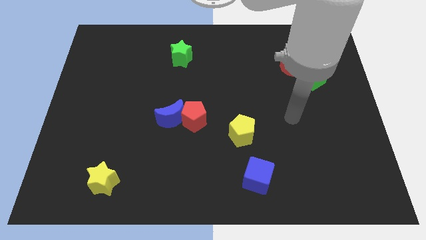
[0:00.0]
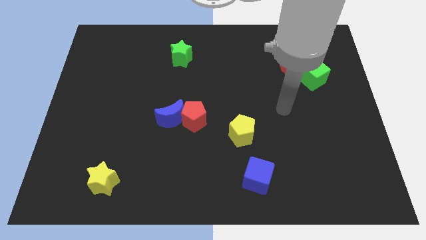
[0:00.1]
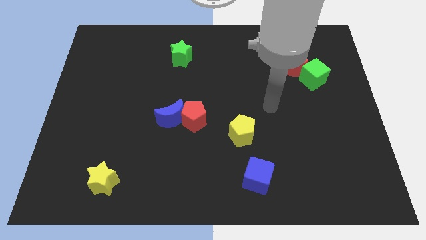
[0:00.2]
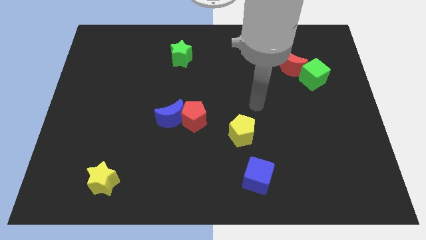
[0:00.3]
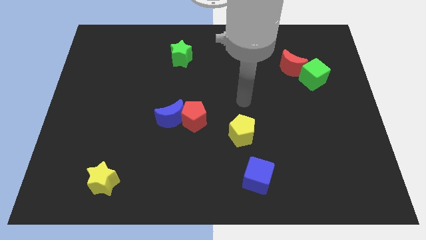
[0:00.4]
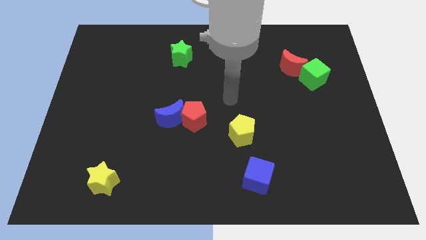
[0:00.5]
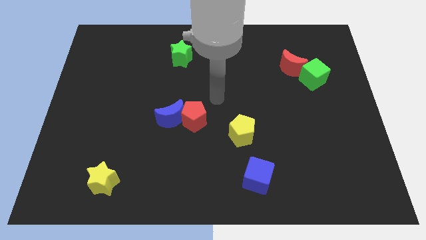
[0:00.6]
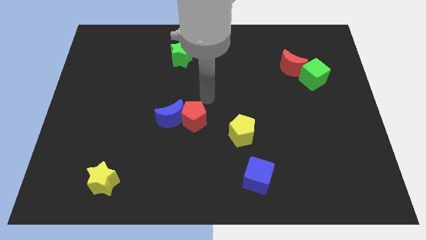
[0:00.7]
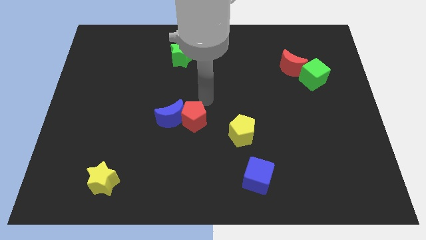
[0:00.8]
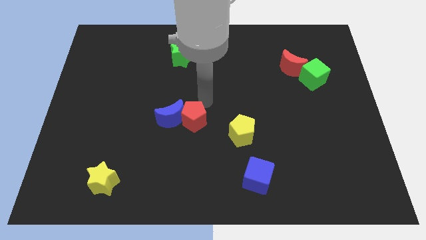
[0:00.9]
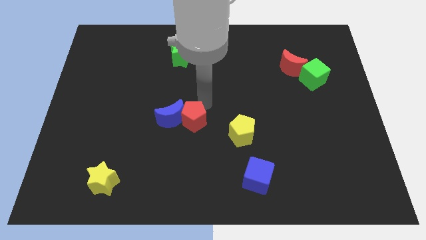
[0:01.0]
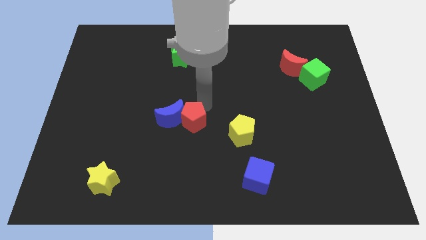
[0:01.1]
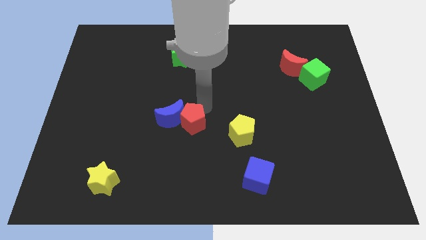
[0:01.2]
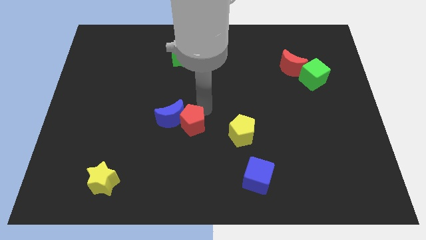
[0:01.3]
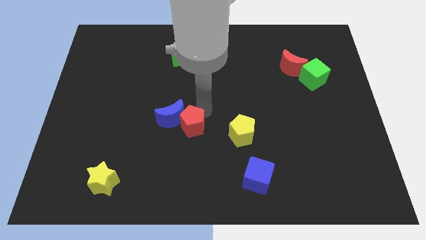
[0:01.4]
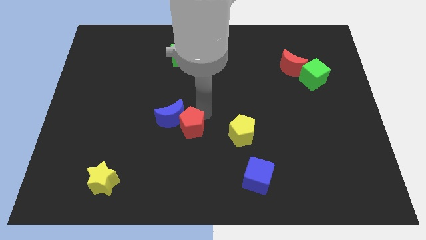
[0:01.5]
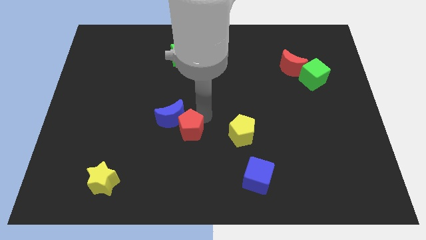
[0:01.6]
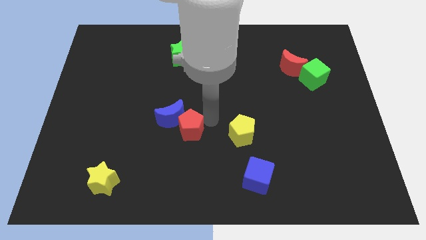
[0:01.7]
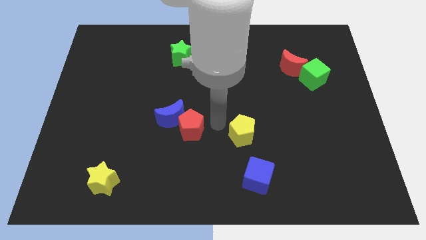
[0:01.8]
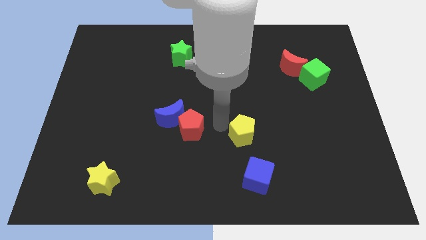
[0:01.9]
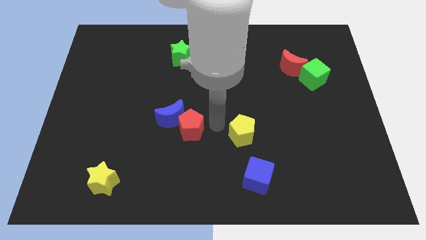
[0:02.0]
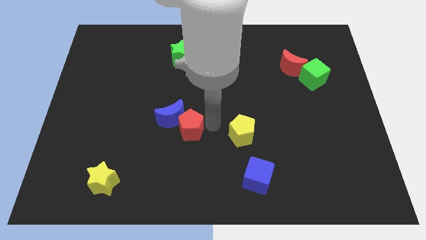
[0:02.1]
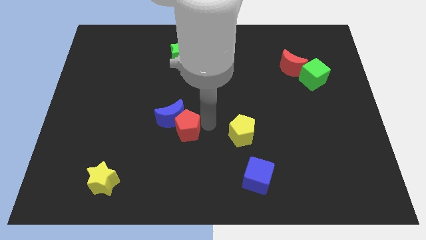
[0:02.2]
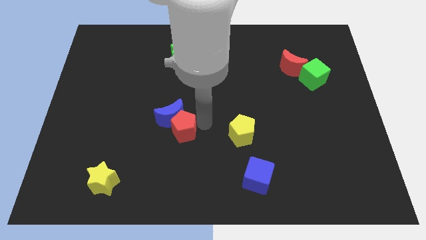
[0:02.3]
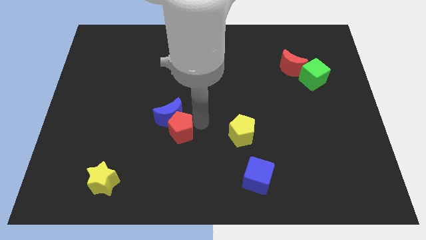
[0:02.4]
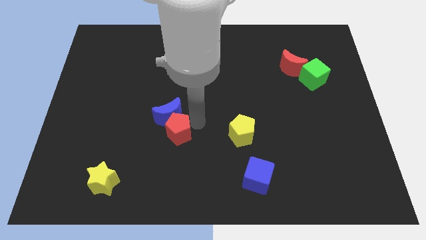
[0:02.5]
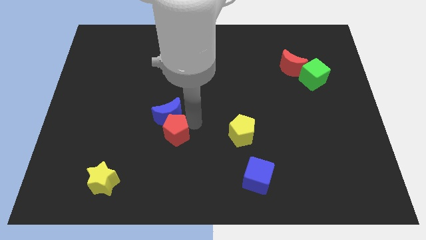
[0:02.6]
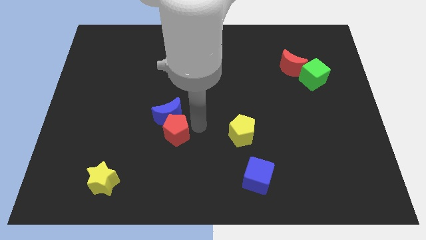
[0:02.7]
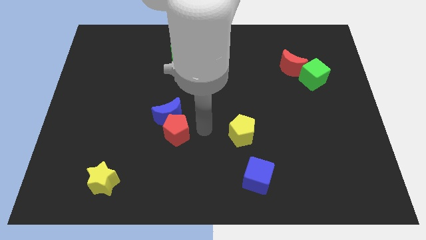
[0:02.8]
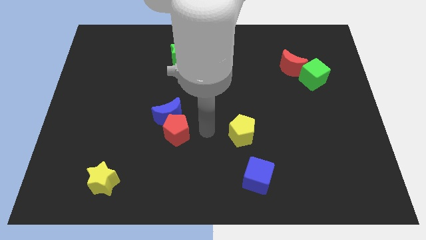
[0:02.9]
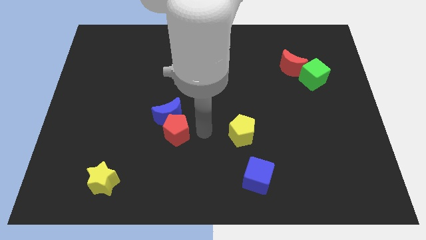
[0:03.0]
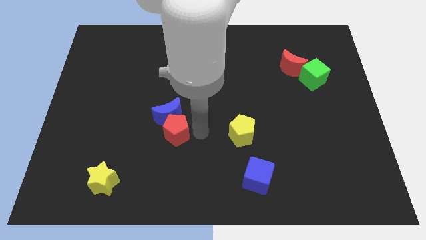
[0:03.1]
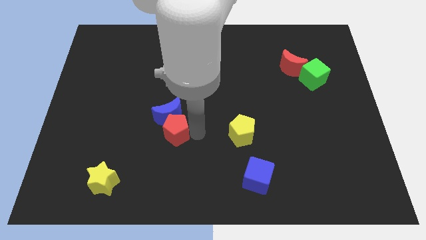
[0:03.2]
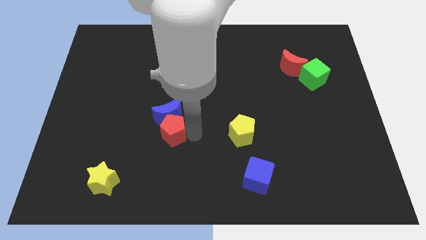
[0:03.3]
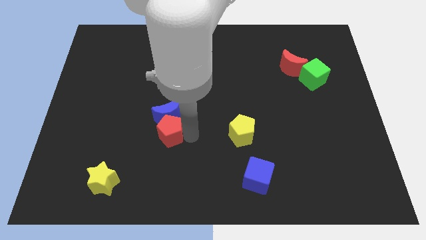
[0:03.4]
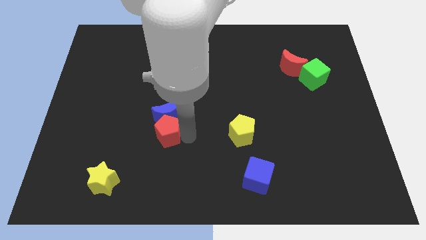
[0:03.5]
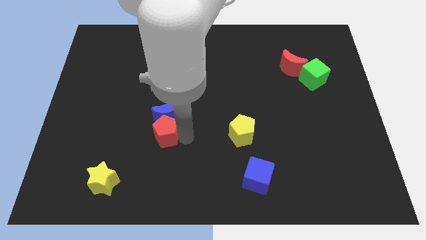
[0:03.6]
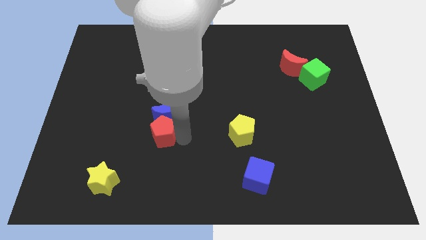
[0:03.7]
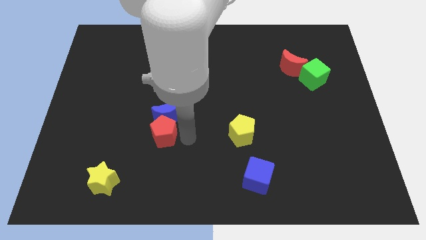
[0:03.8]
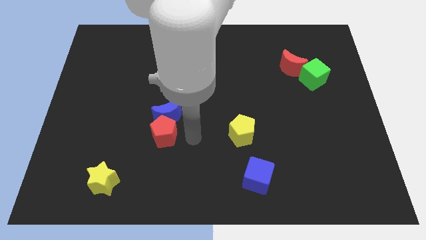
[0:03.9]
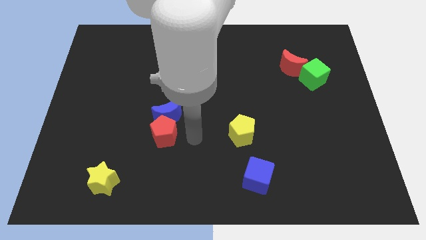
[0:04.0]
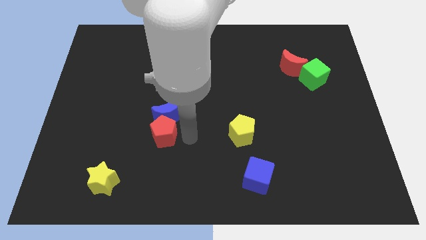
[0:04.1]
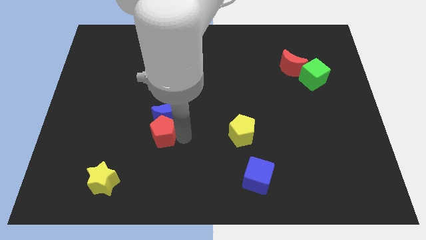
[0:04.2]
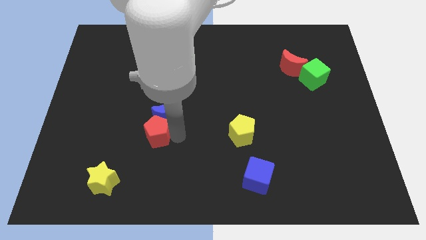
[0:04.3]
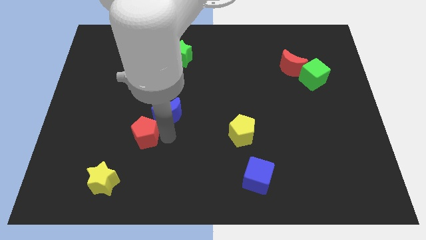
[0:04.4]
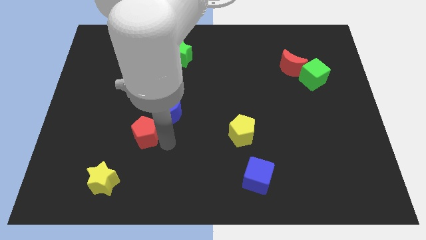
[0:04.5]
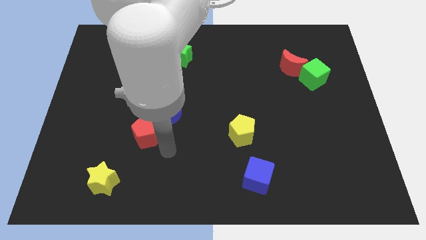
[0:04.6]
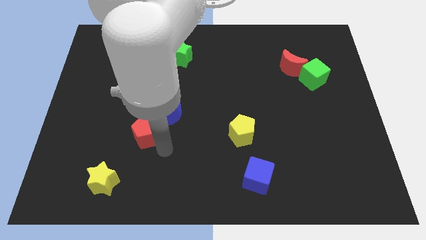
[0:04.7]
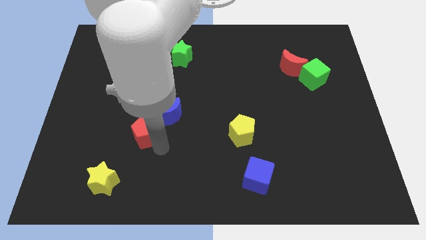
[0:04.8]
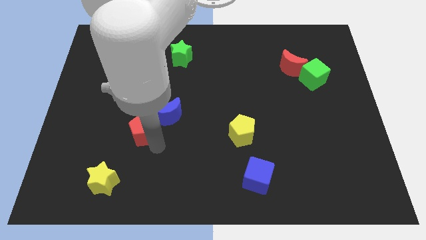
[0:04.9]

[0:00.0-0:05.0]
move the red pentagon just left of the blue moon

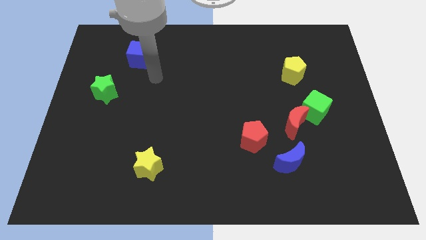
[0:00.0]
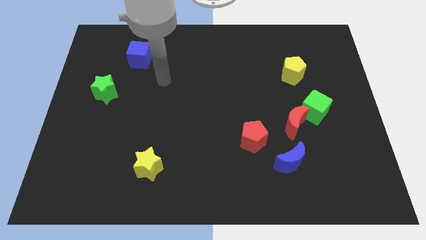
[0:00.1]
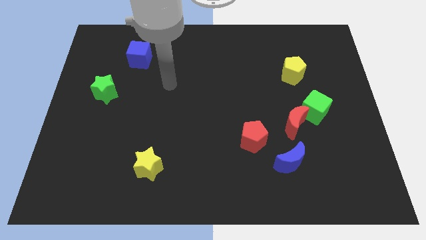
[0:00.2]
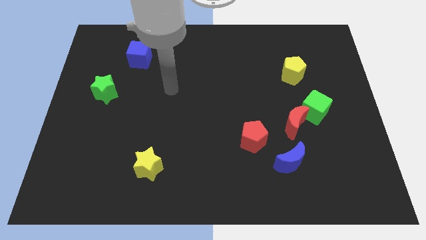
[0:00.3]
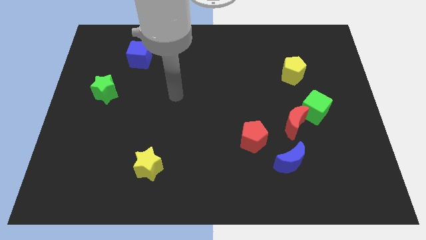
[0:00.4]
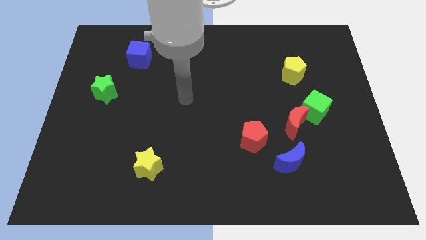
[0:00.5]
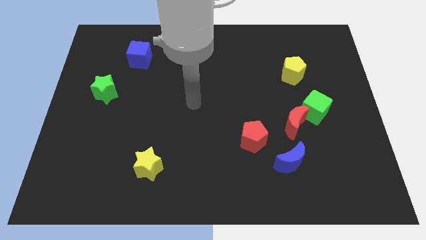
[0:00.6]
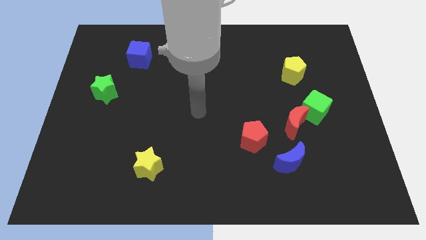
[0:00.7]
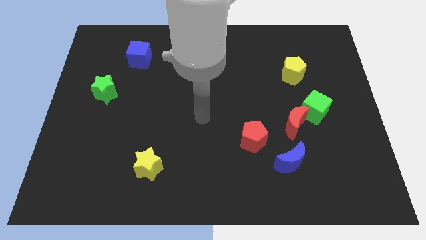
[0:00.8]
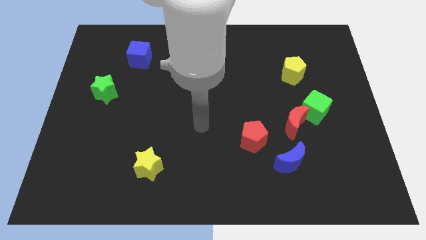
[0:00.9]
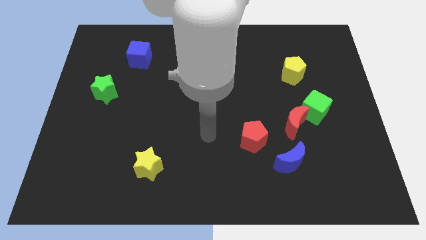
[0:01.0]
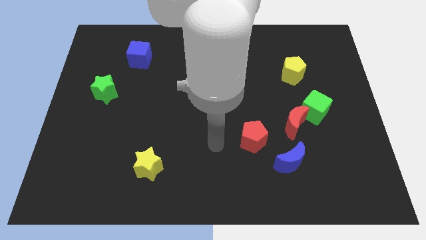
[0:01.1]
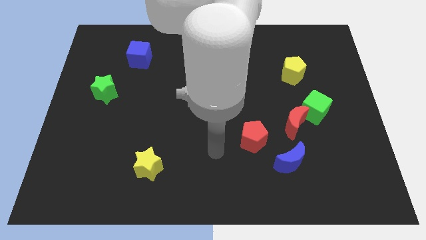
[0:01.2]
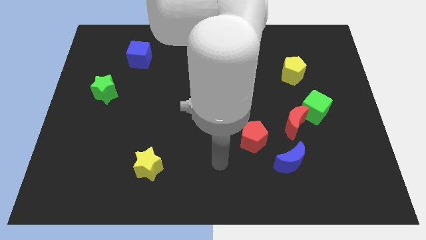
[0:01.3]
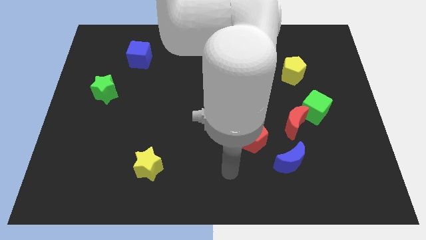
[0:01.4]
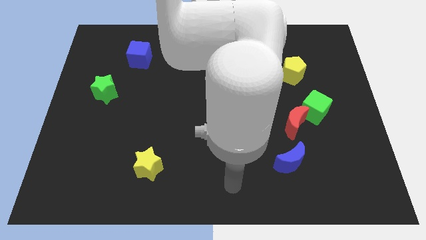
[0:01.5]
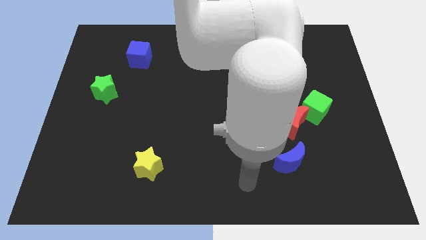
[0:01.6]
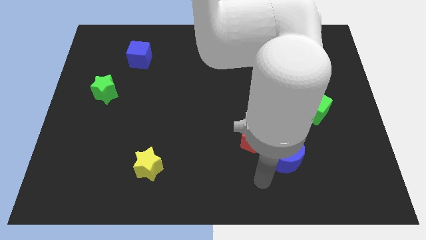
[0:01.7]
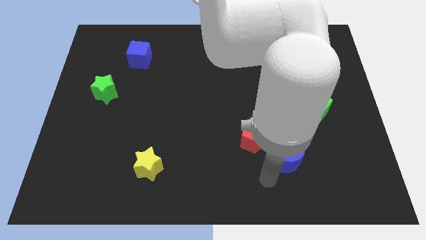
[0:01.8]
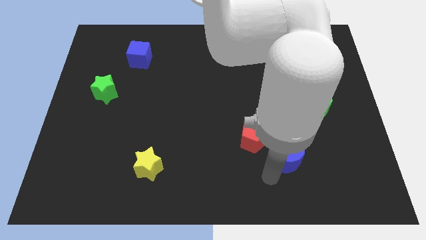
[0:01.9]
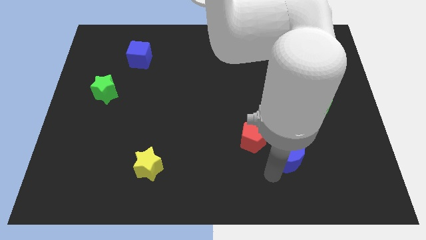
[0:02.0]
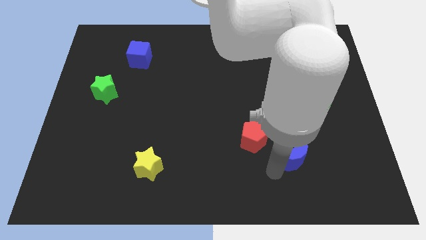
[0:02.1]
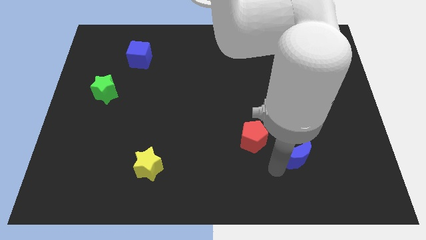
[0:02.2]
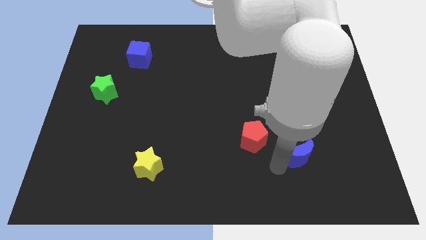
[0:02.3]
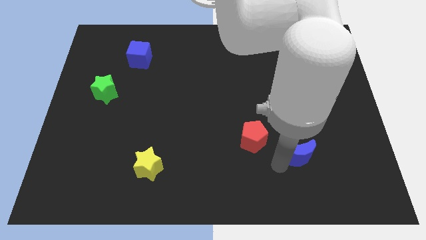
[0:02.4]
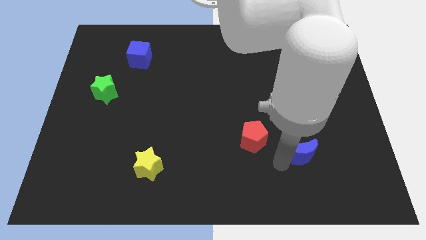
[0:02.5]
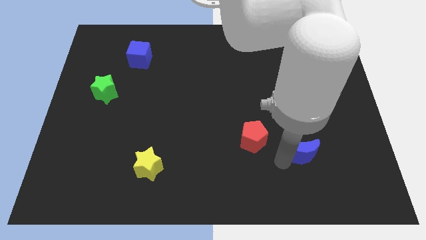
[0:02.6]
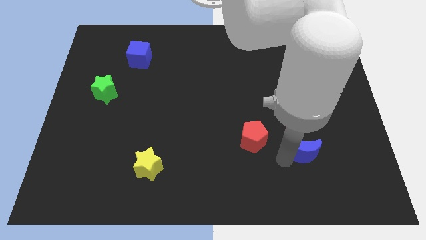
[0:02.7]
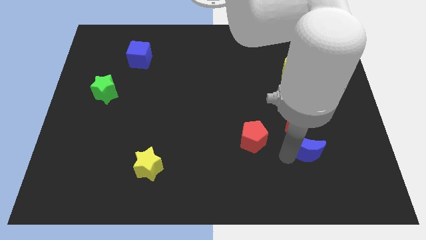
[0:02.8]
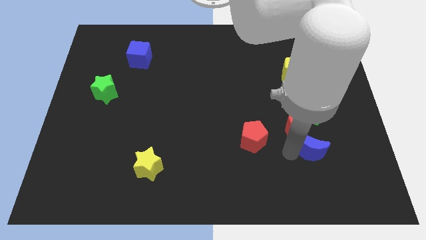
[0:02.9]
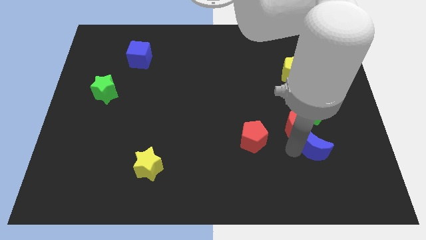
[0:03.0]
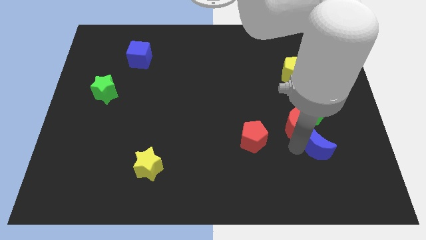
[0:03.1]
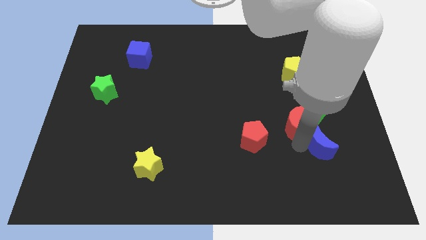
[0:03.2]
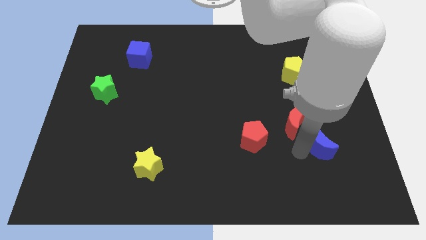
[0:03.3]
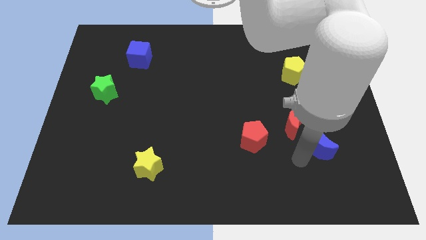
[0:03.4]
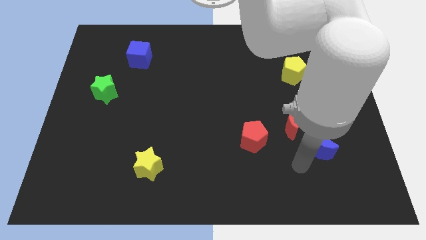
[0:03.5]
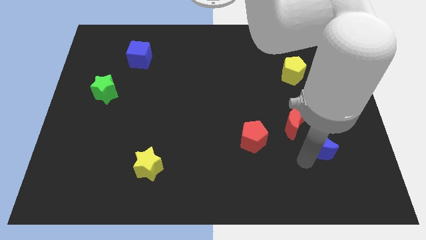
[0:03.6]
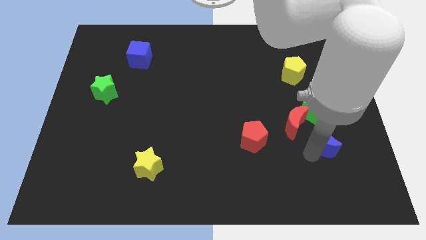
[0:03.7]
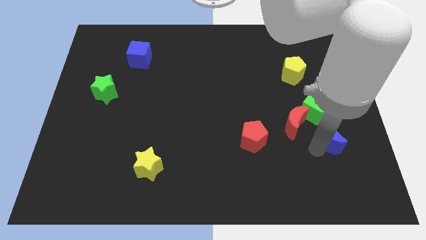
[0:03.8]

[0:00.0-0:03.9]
slide the blue moon just right of the red moon
